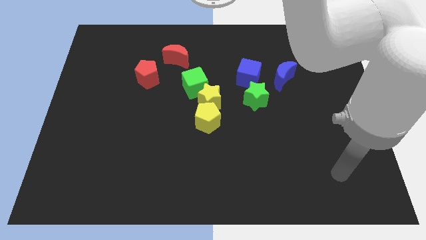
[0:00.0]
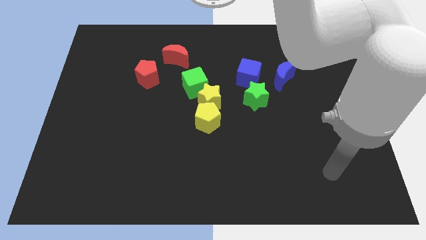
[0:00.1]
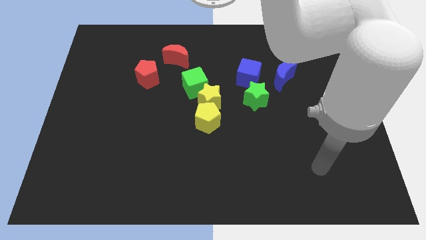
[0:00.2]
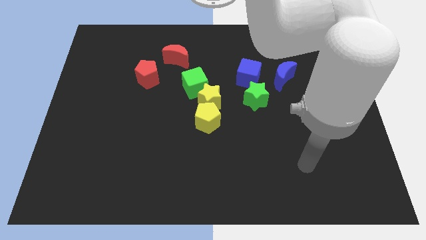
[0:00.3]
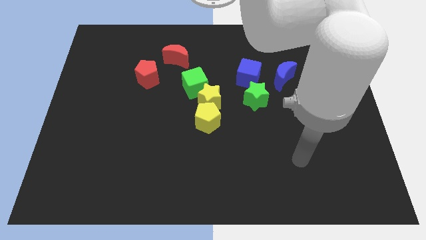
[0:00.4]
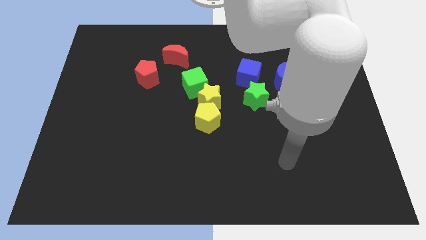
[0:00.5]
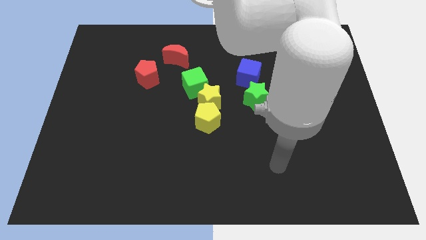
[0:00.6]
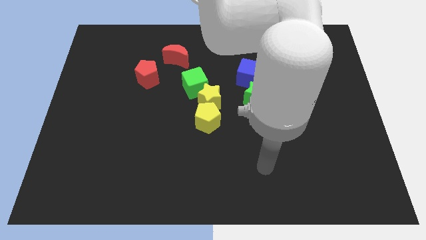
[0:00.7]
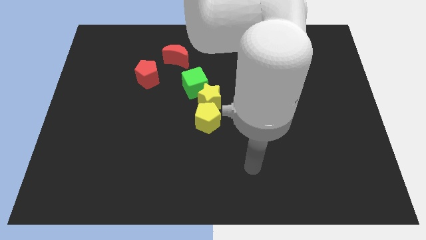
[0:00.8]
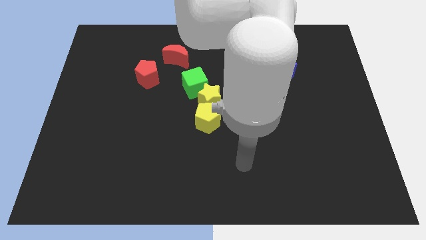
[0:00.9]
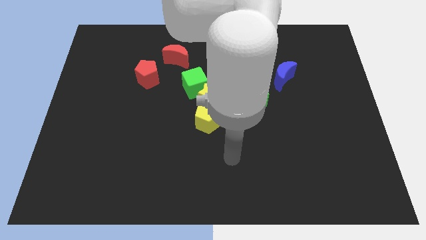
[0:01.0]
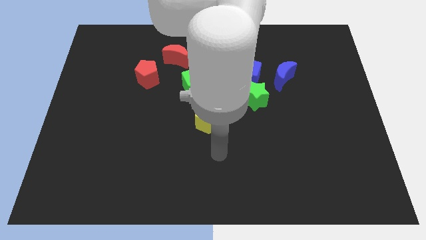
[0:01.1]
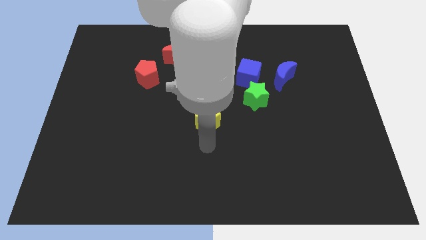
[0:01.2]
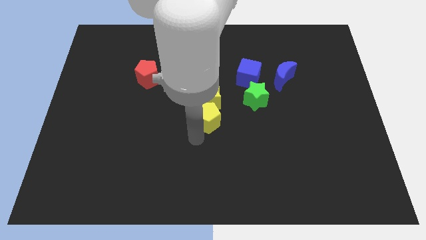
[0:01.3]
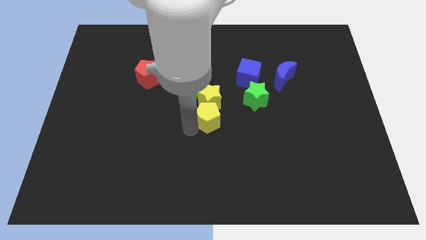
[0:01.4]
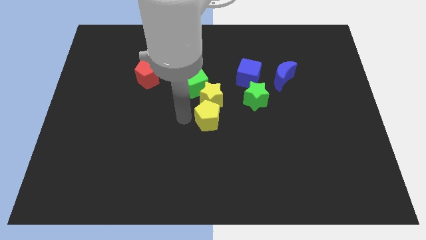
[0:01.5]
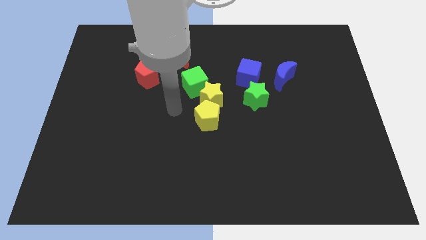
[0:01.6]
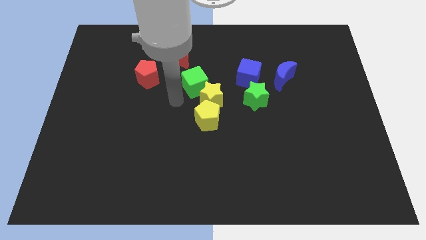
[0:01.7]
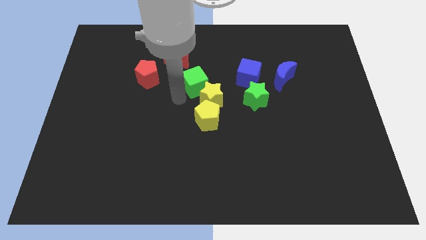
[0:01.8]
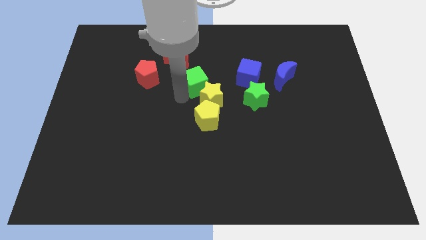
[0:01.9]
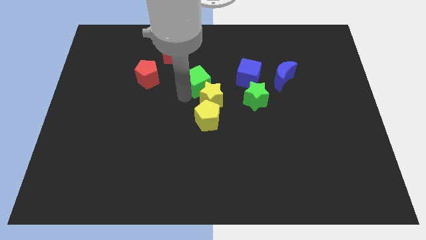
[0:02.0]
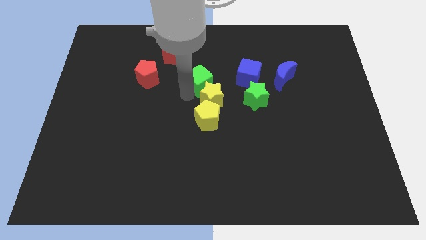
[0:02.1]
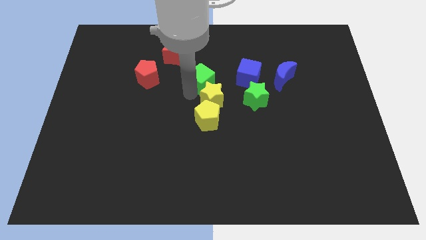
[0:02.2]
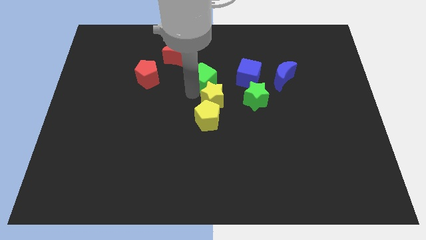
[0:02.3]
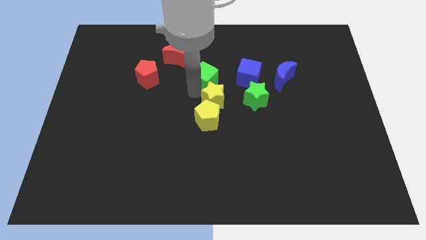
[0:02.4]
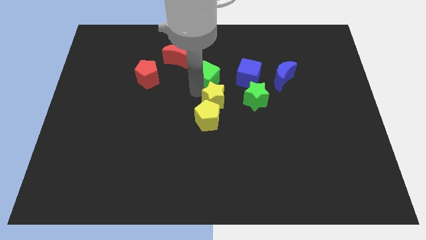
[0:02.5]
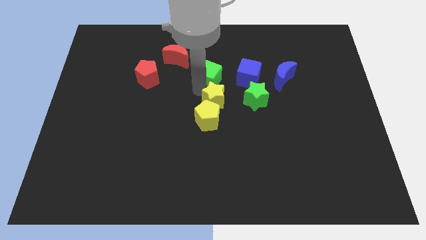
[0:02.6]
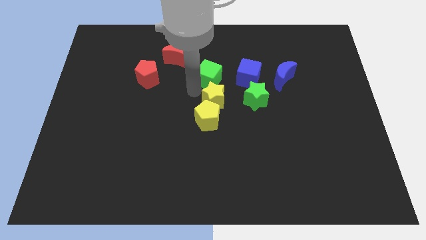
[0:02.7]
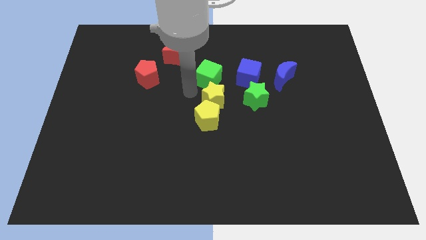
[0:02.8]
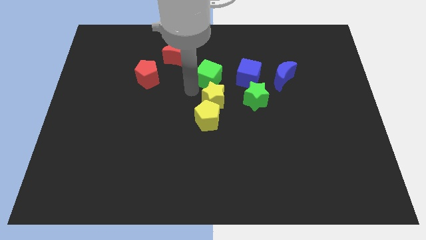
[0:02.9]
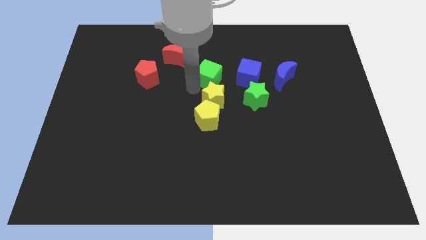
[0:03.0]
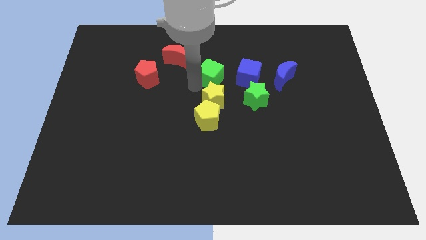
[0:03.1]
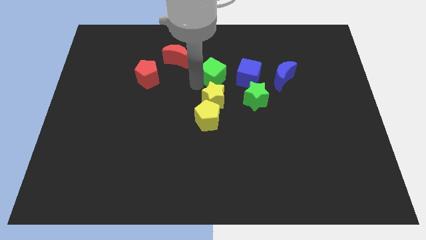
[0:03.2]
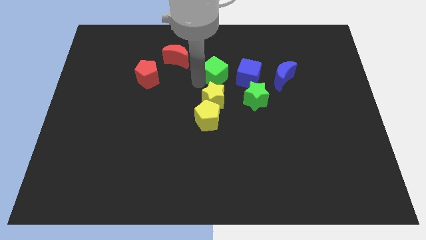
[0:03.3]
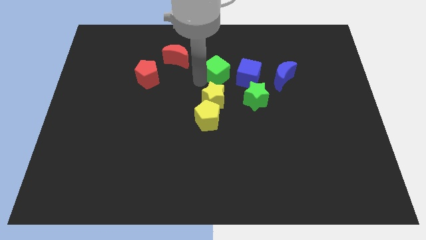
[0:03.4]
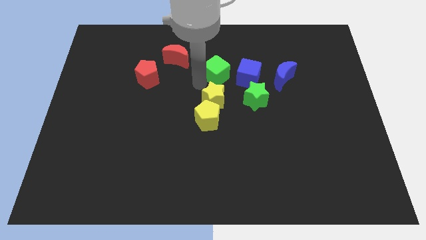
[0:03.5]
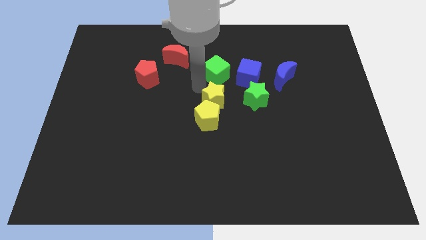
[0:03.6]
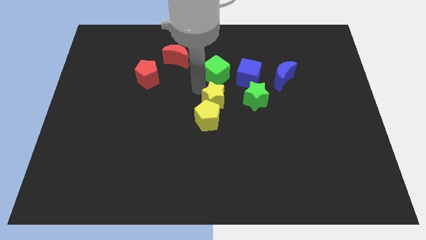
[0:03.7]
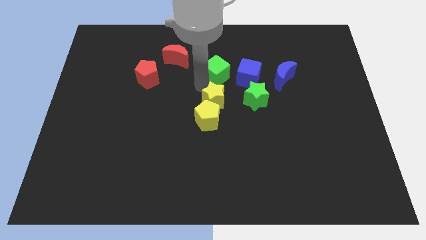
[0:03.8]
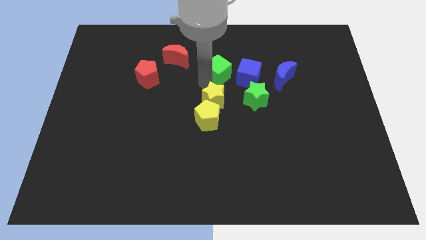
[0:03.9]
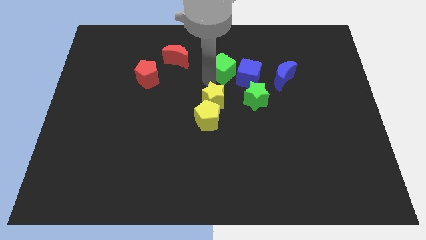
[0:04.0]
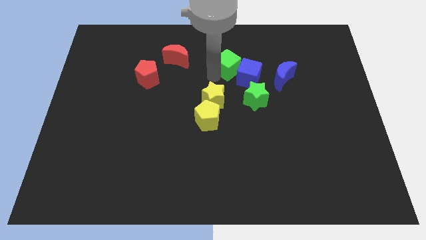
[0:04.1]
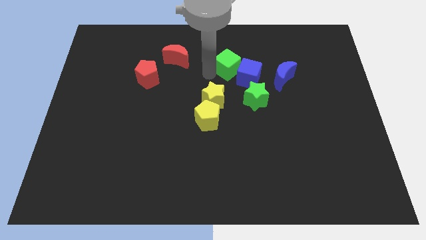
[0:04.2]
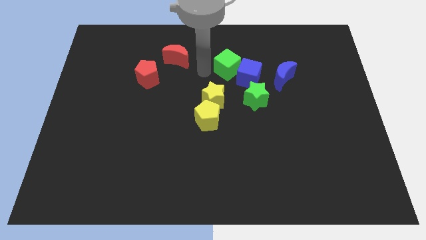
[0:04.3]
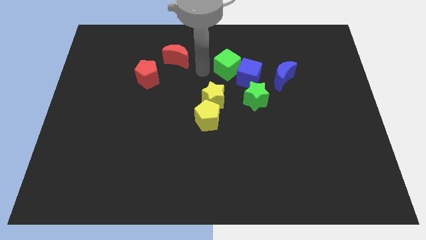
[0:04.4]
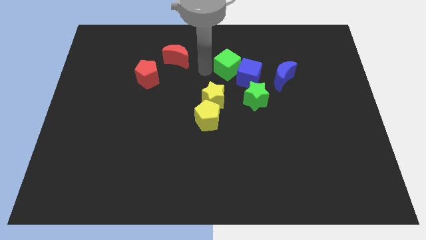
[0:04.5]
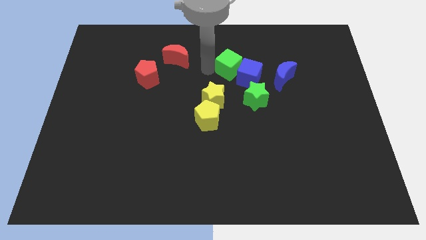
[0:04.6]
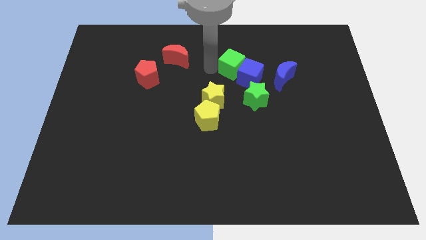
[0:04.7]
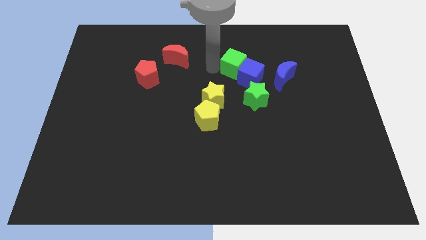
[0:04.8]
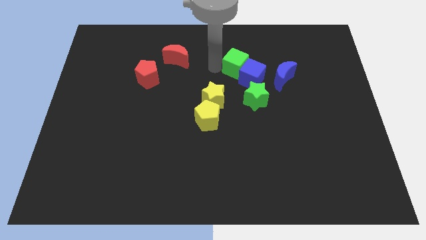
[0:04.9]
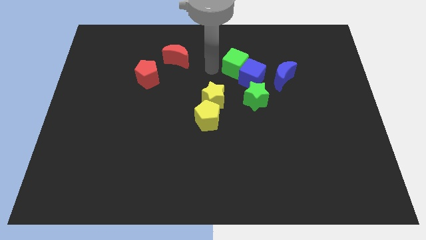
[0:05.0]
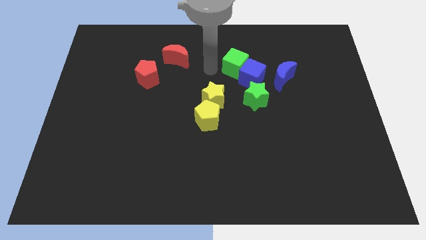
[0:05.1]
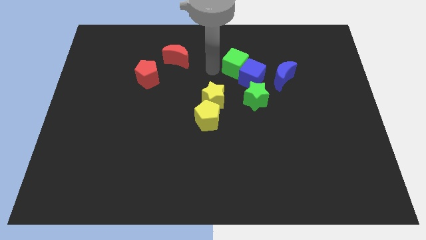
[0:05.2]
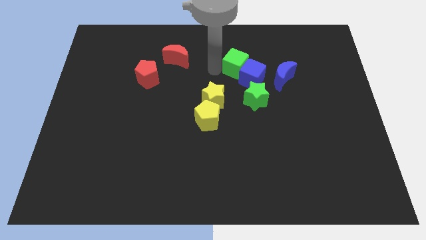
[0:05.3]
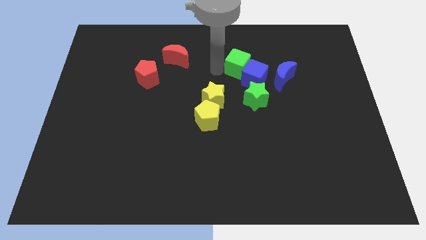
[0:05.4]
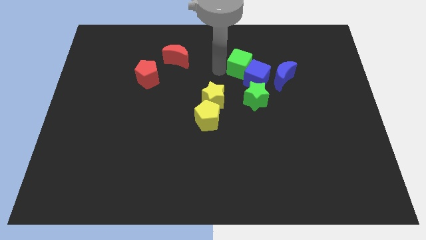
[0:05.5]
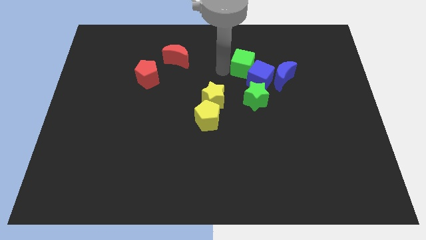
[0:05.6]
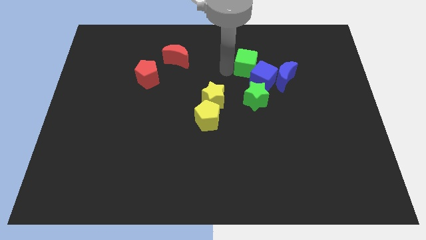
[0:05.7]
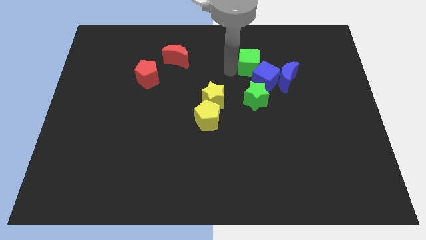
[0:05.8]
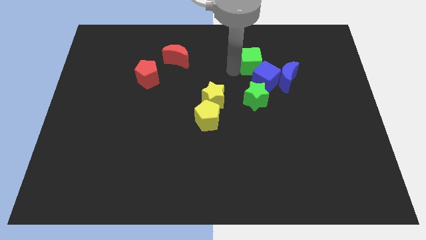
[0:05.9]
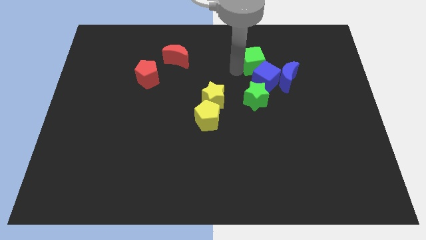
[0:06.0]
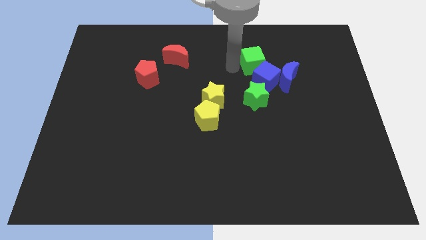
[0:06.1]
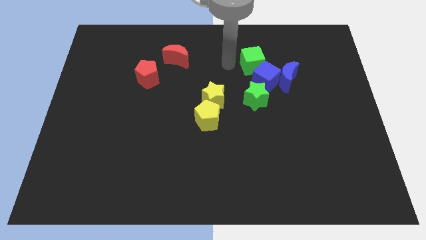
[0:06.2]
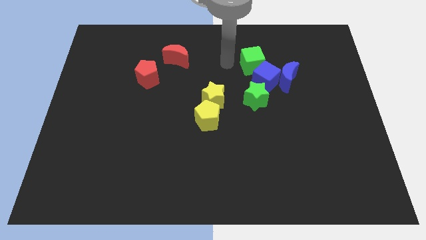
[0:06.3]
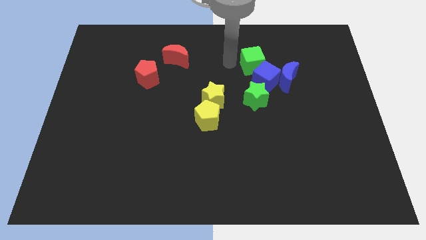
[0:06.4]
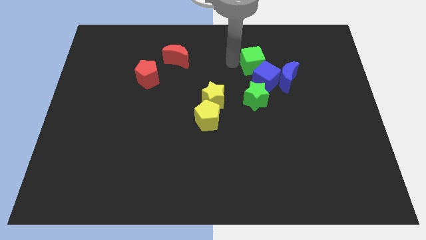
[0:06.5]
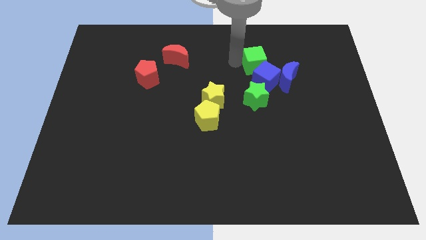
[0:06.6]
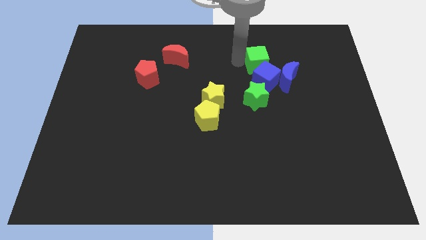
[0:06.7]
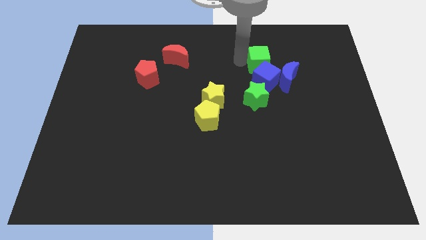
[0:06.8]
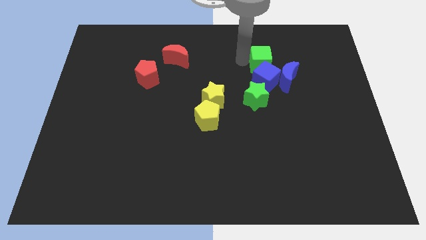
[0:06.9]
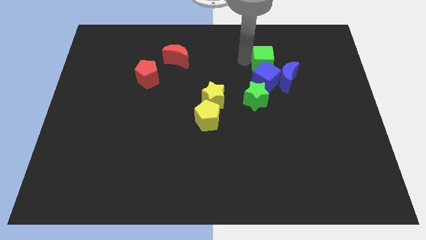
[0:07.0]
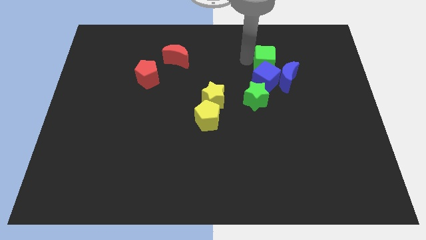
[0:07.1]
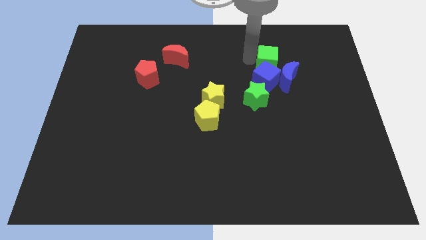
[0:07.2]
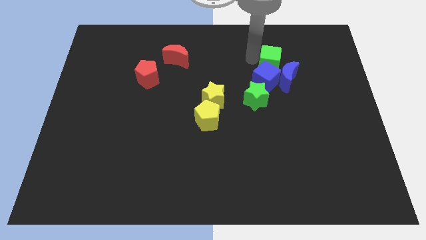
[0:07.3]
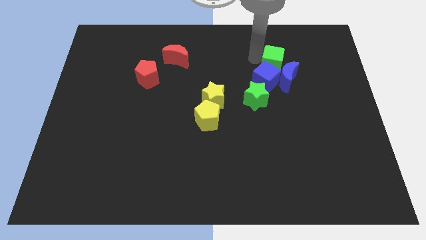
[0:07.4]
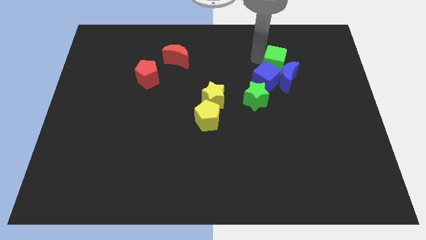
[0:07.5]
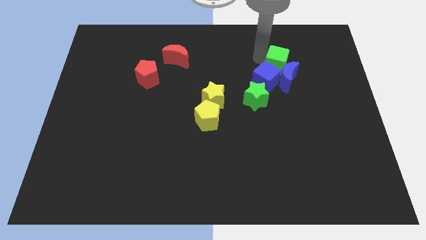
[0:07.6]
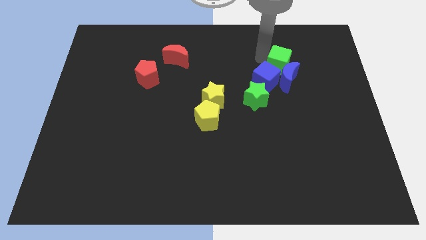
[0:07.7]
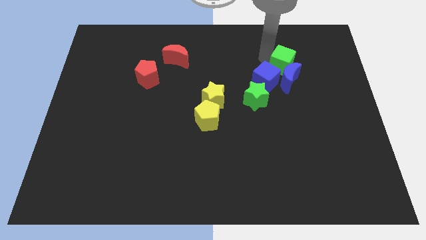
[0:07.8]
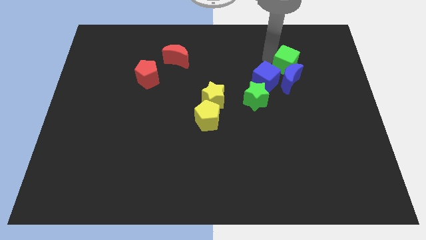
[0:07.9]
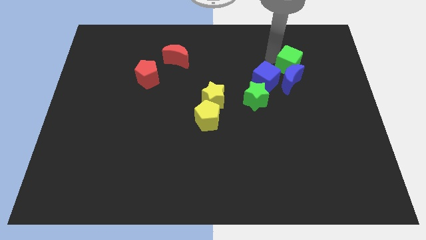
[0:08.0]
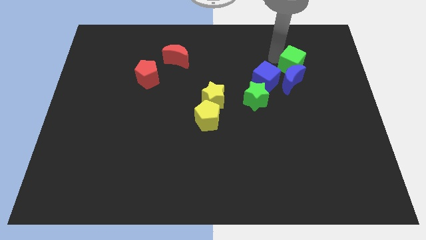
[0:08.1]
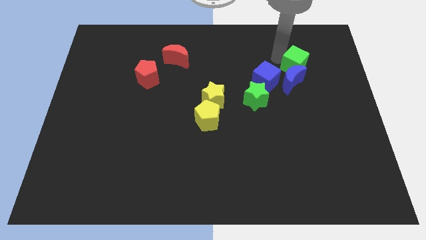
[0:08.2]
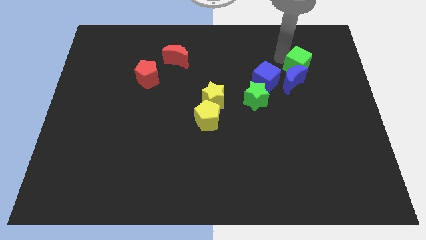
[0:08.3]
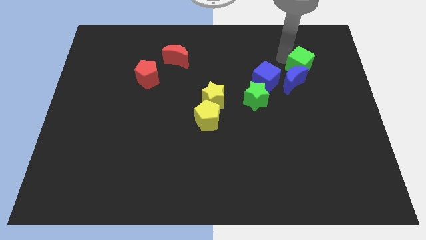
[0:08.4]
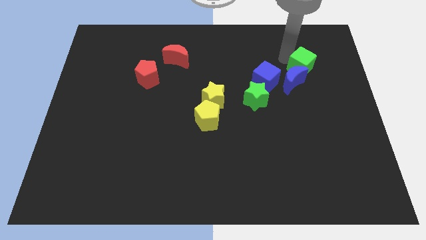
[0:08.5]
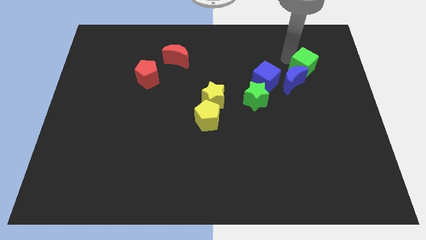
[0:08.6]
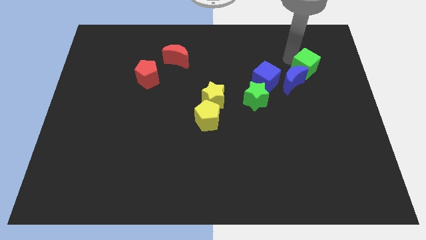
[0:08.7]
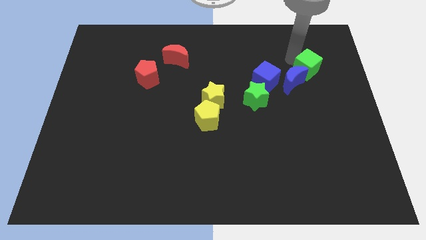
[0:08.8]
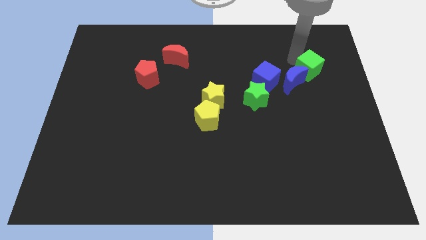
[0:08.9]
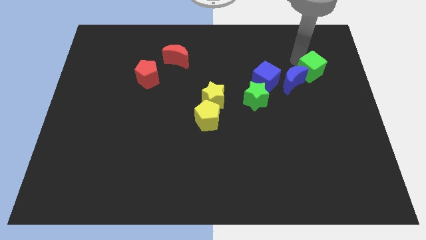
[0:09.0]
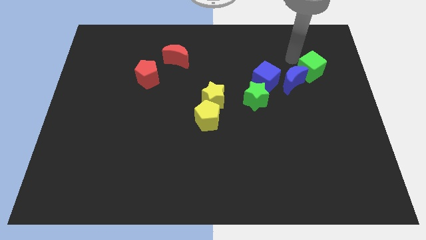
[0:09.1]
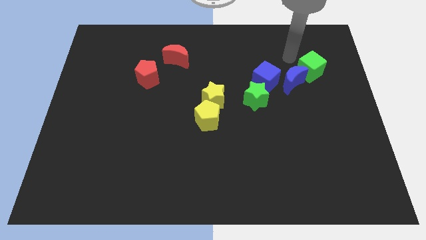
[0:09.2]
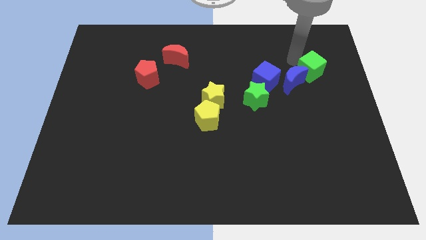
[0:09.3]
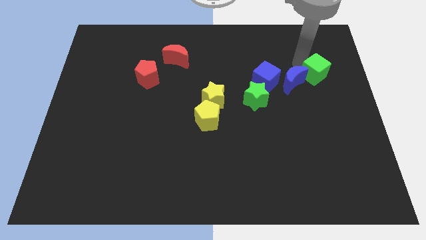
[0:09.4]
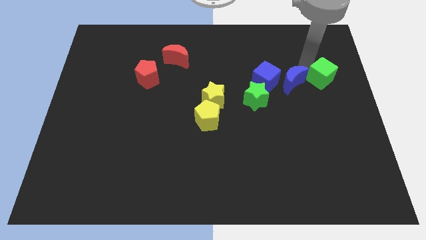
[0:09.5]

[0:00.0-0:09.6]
put the green cube to the right side of the board
